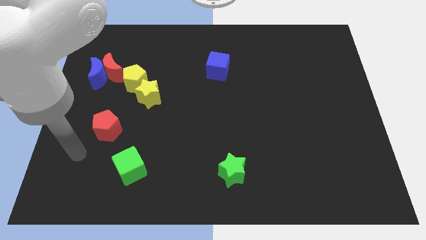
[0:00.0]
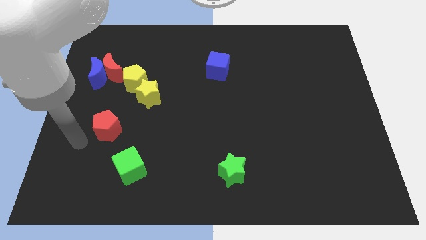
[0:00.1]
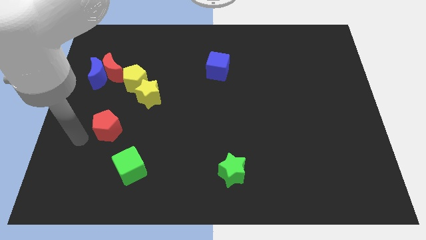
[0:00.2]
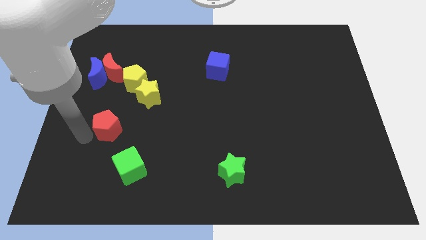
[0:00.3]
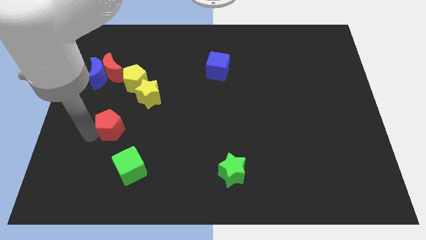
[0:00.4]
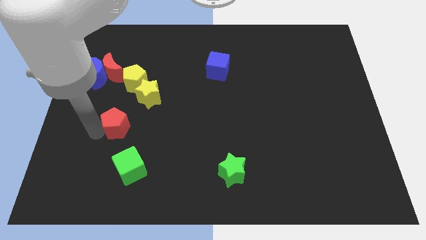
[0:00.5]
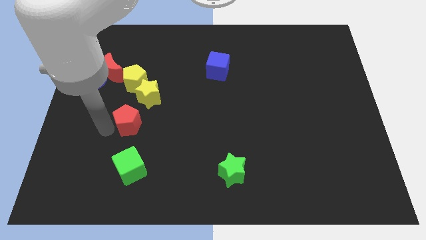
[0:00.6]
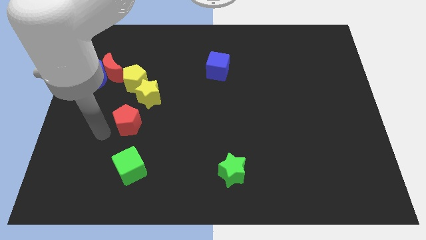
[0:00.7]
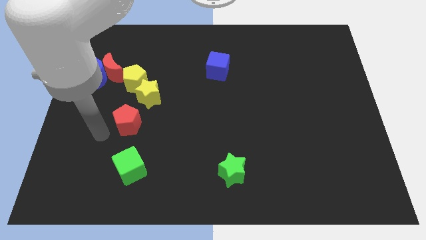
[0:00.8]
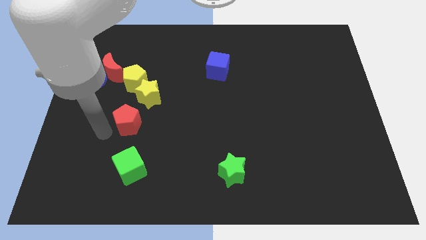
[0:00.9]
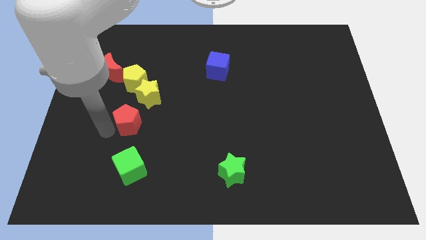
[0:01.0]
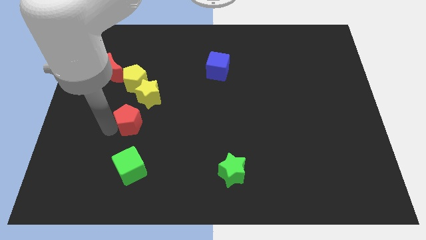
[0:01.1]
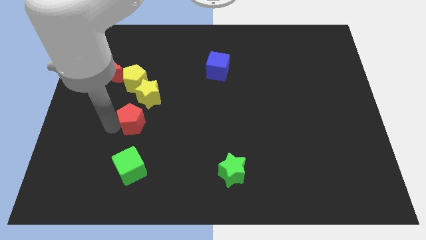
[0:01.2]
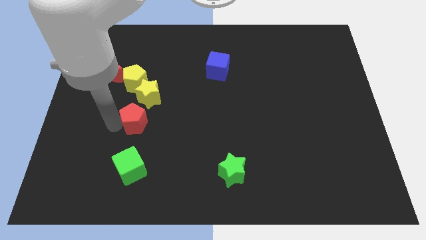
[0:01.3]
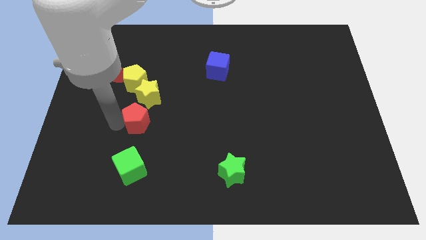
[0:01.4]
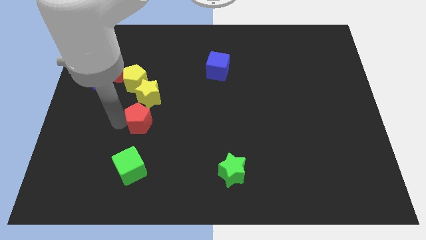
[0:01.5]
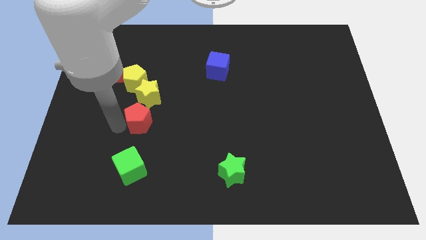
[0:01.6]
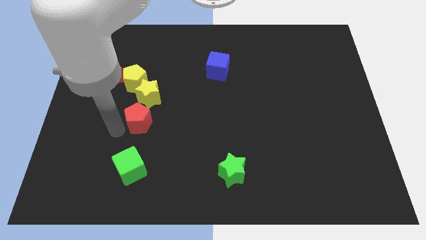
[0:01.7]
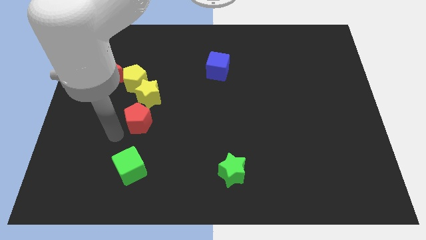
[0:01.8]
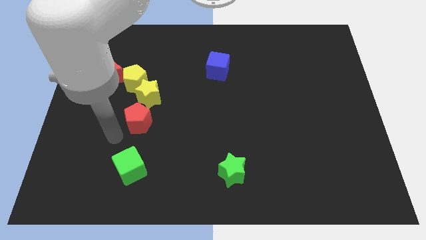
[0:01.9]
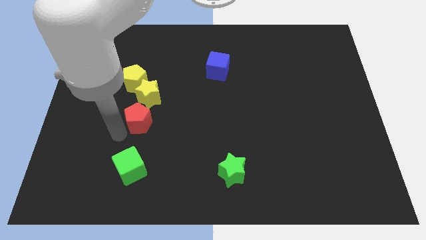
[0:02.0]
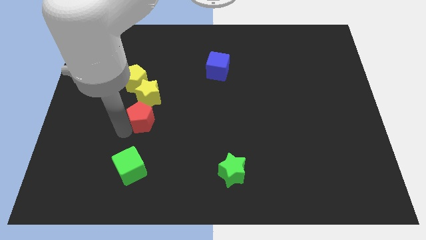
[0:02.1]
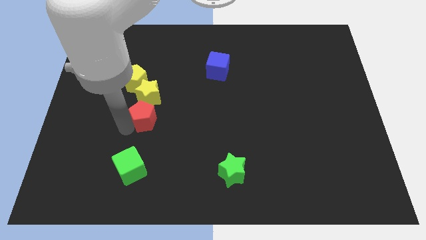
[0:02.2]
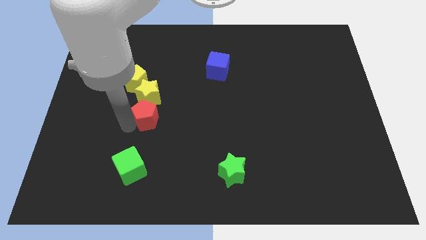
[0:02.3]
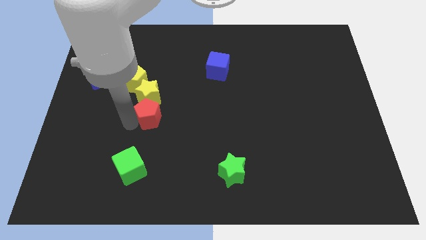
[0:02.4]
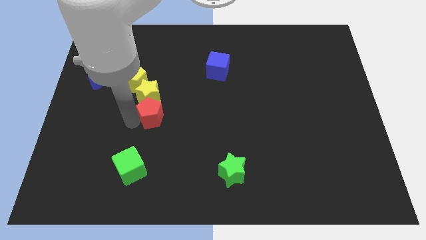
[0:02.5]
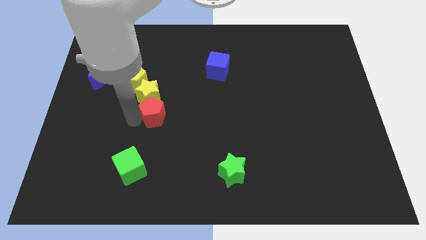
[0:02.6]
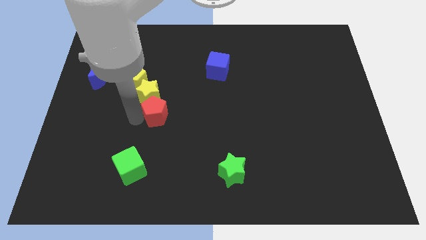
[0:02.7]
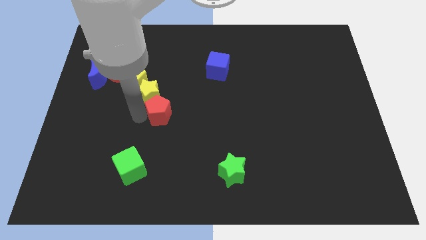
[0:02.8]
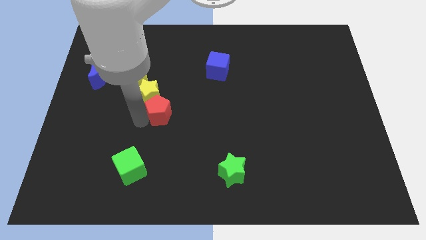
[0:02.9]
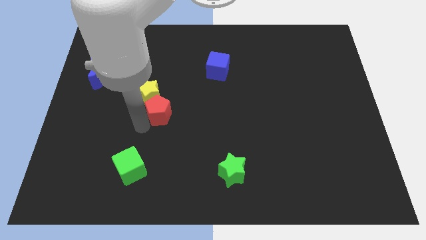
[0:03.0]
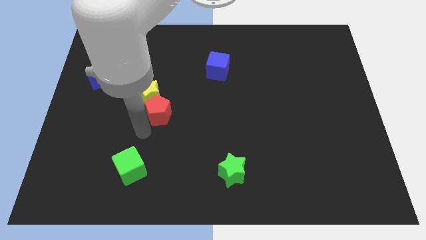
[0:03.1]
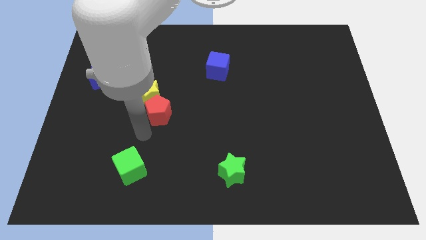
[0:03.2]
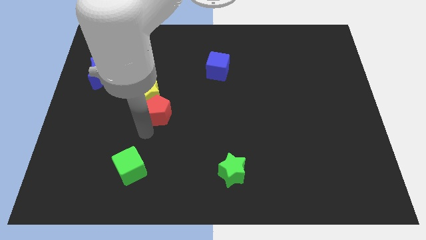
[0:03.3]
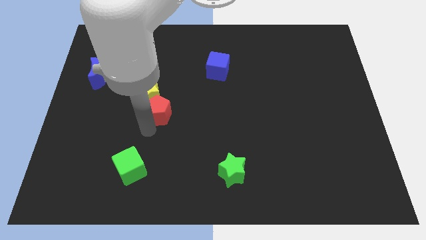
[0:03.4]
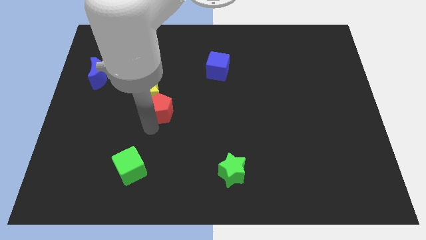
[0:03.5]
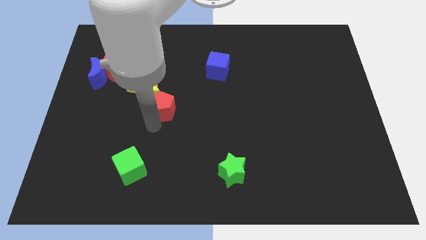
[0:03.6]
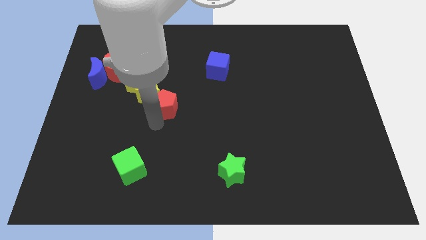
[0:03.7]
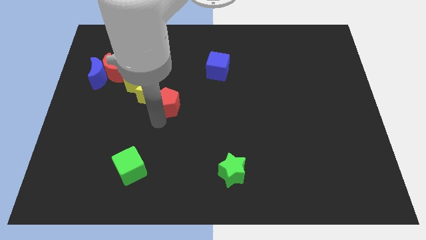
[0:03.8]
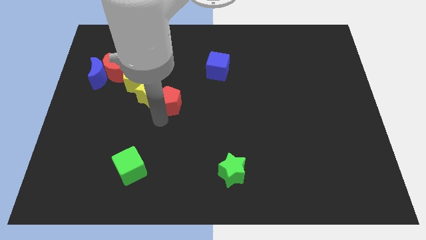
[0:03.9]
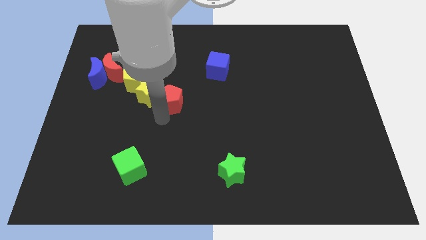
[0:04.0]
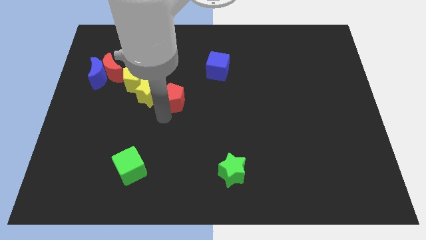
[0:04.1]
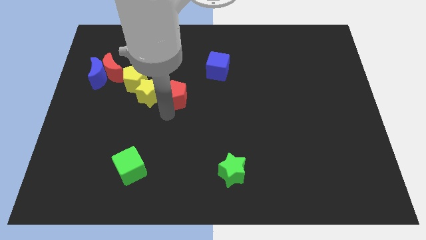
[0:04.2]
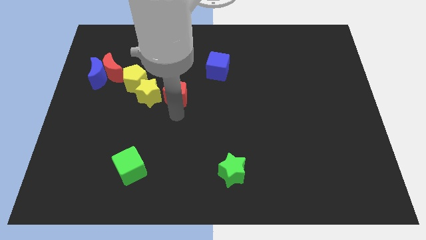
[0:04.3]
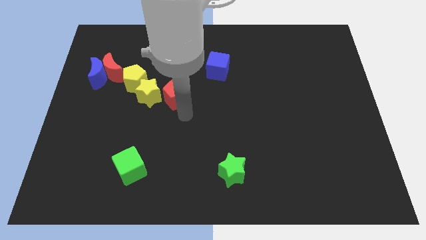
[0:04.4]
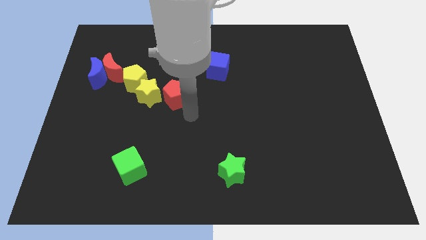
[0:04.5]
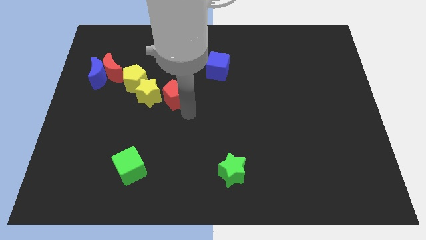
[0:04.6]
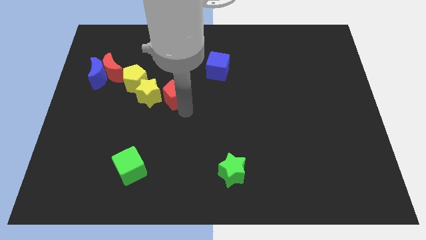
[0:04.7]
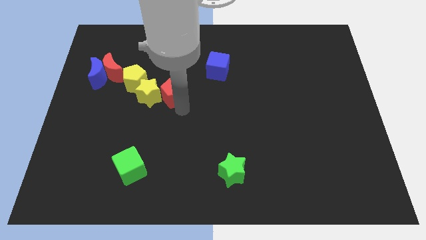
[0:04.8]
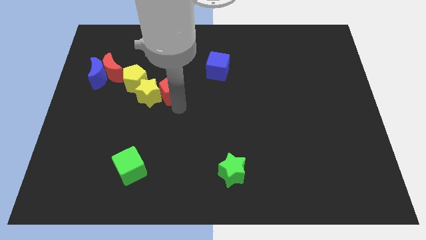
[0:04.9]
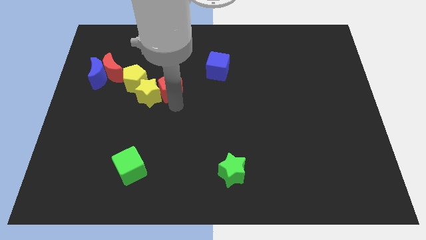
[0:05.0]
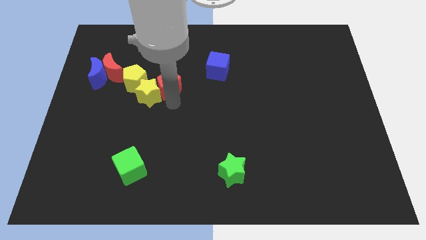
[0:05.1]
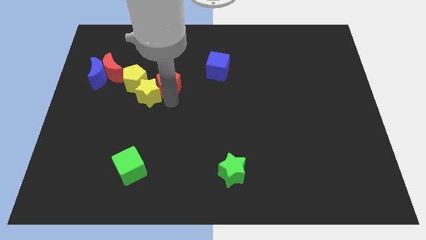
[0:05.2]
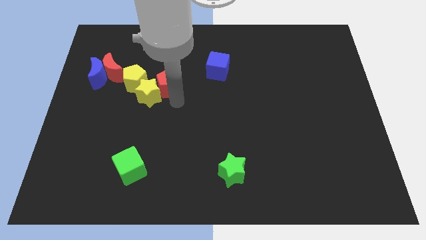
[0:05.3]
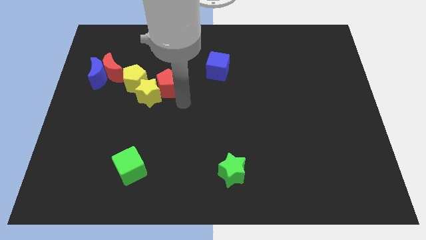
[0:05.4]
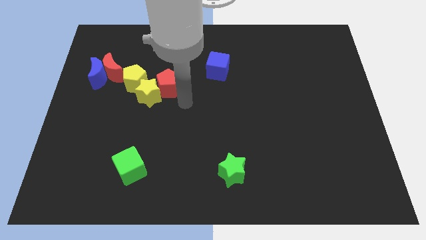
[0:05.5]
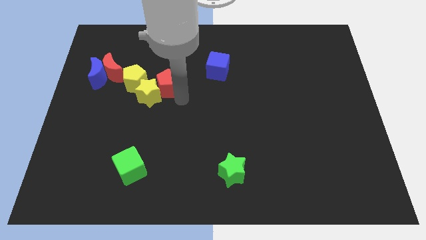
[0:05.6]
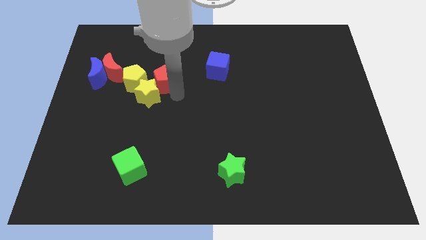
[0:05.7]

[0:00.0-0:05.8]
slide the red pentagon to the right of the red moon
